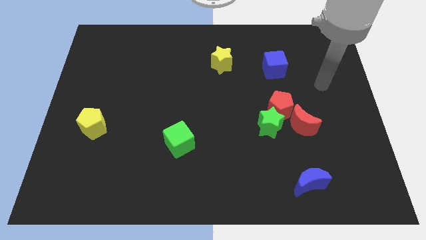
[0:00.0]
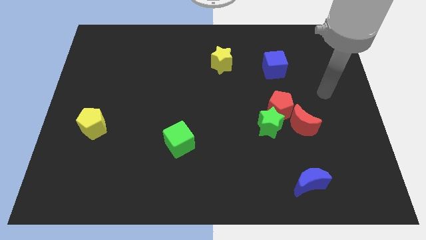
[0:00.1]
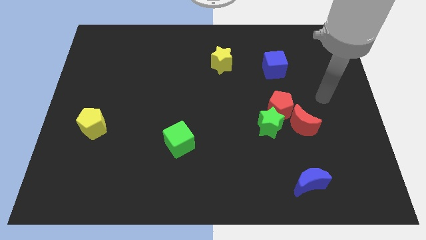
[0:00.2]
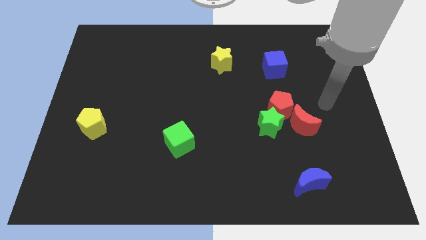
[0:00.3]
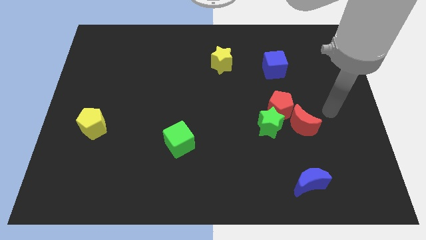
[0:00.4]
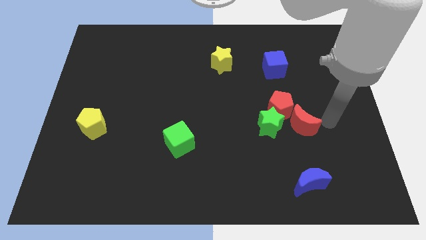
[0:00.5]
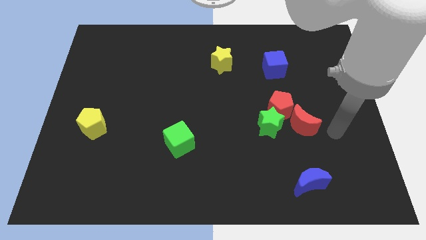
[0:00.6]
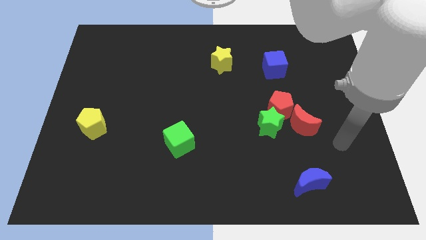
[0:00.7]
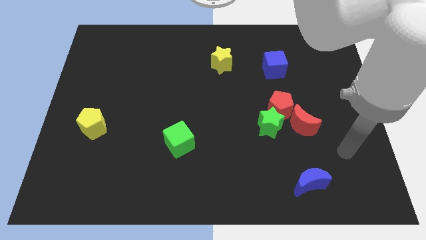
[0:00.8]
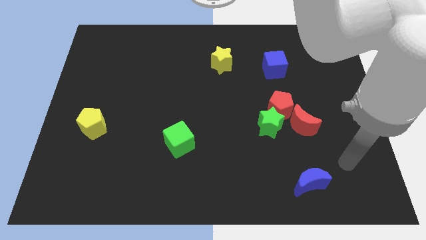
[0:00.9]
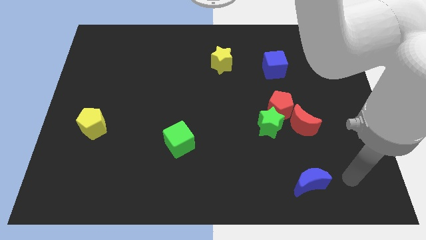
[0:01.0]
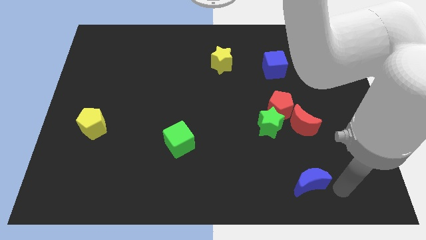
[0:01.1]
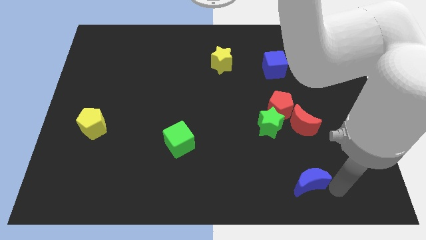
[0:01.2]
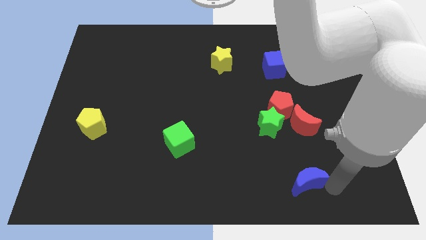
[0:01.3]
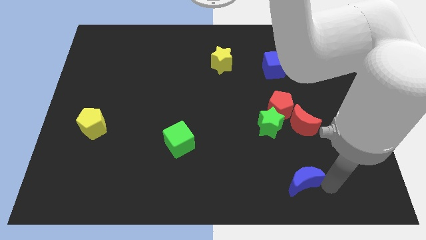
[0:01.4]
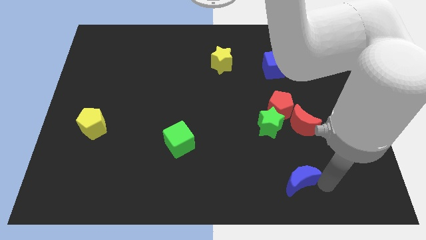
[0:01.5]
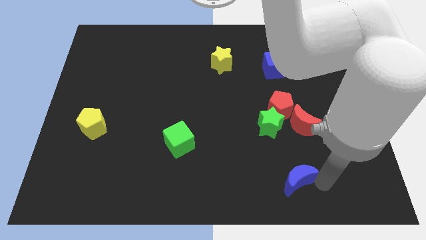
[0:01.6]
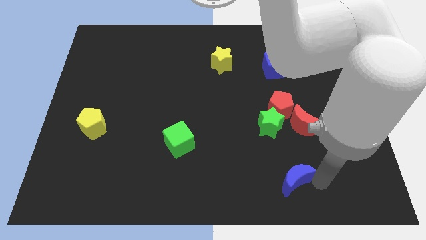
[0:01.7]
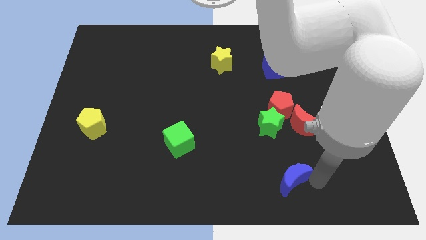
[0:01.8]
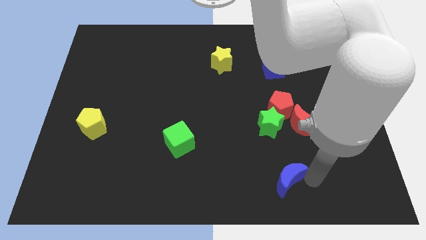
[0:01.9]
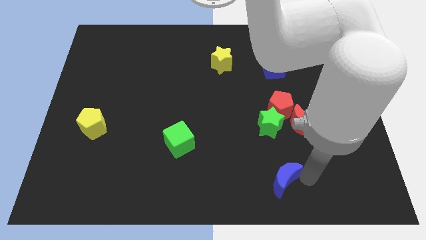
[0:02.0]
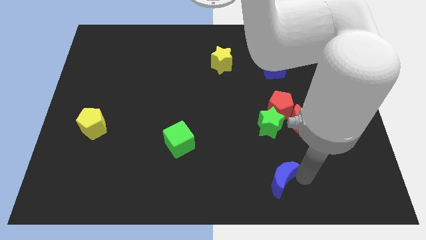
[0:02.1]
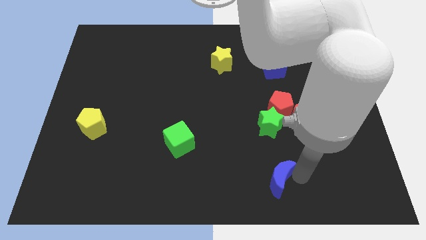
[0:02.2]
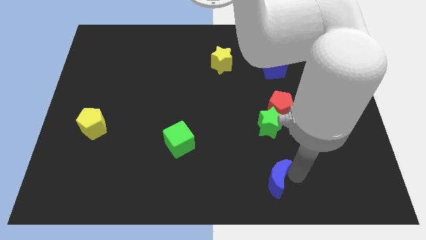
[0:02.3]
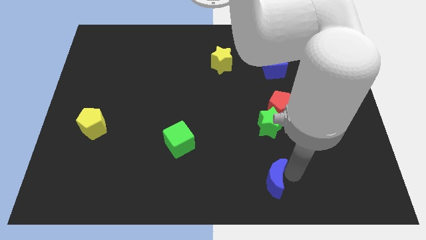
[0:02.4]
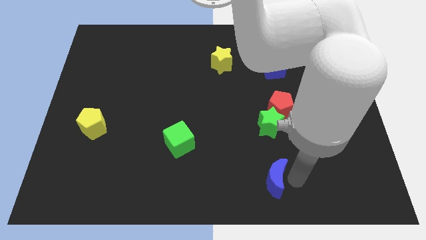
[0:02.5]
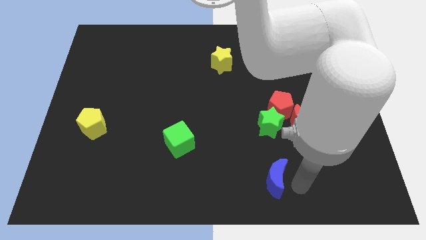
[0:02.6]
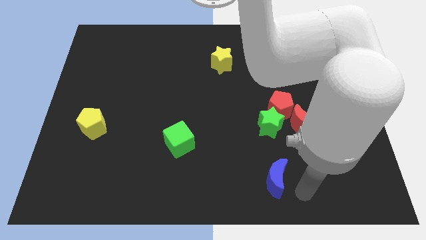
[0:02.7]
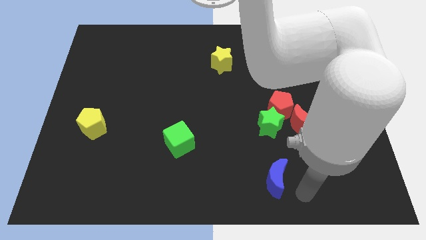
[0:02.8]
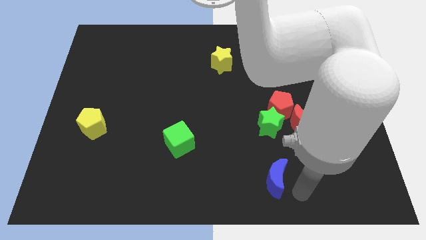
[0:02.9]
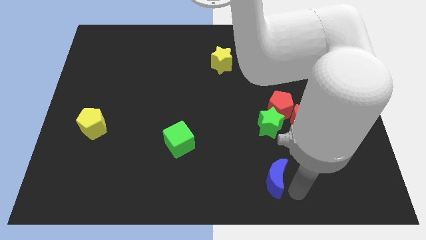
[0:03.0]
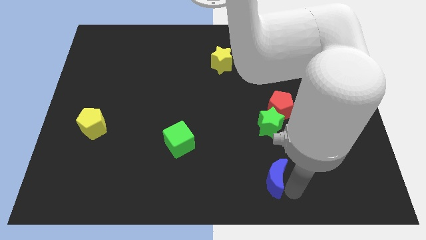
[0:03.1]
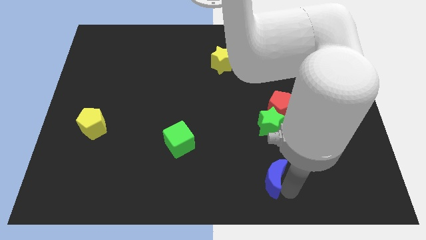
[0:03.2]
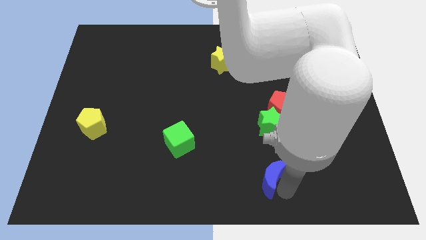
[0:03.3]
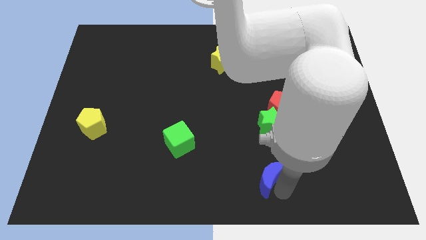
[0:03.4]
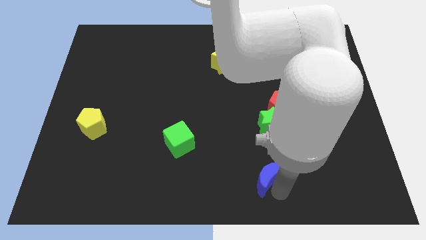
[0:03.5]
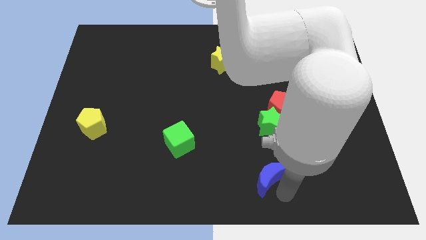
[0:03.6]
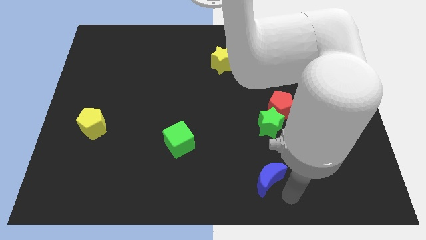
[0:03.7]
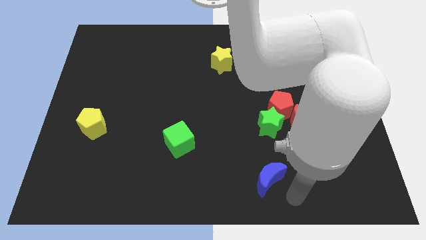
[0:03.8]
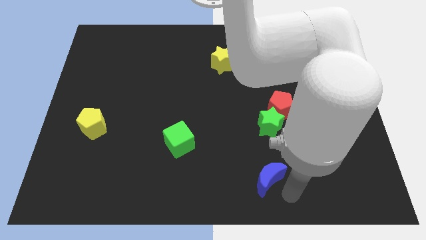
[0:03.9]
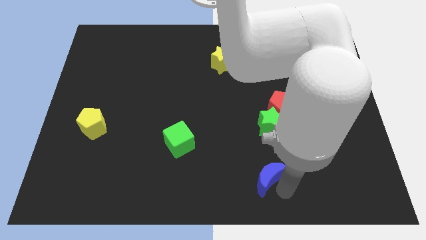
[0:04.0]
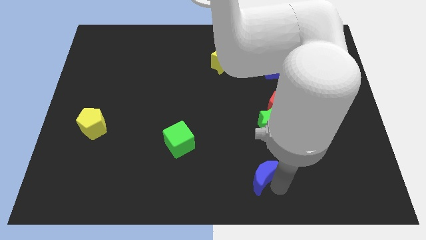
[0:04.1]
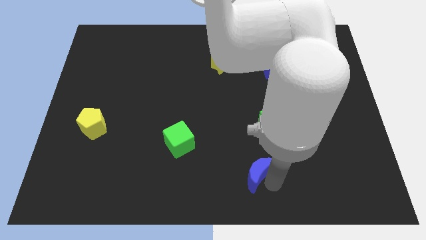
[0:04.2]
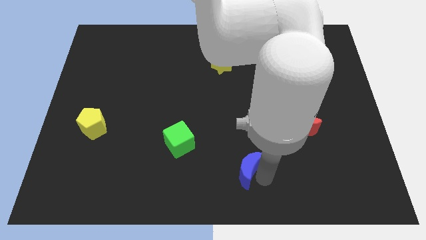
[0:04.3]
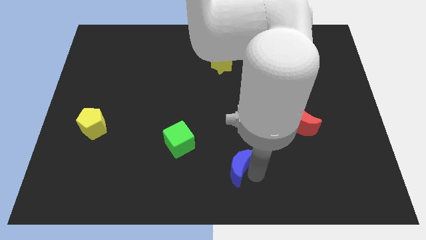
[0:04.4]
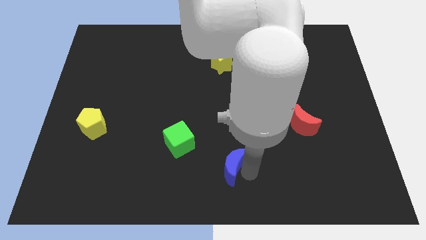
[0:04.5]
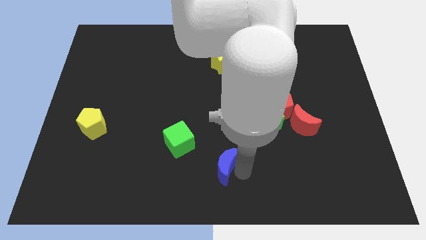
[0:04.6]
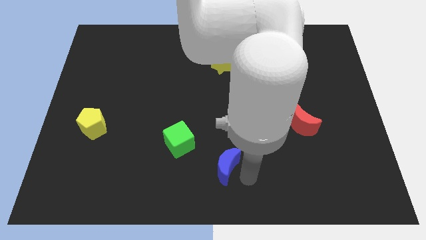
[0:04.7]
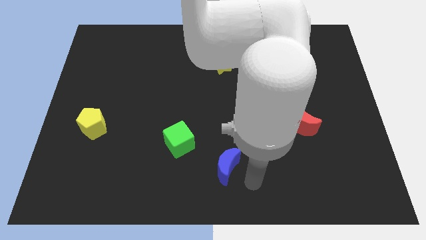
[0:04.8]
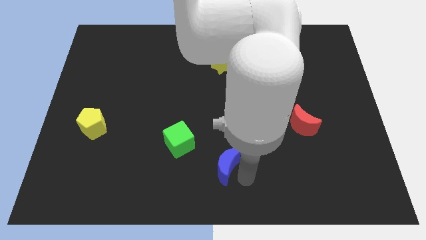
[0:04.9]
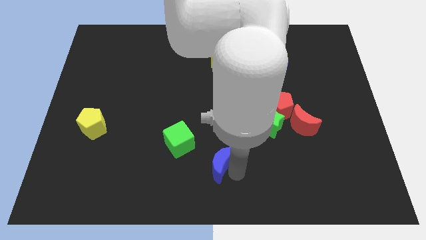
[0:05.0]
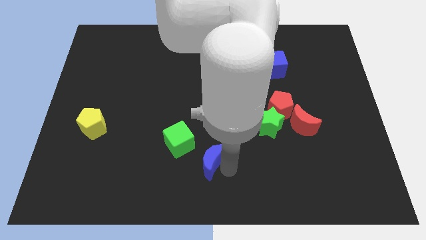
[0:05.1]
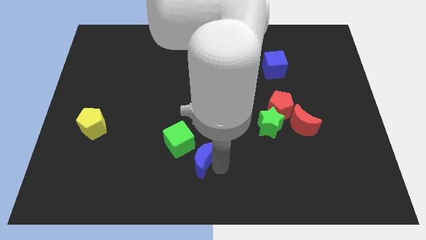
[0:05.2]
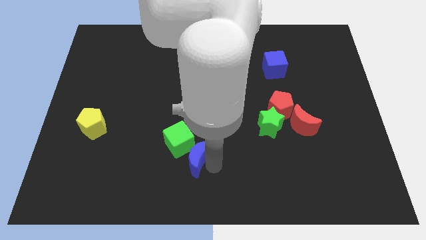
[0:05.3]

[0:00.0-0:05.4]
put the blue moon close to the green cube

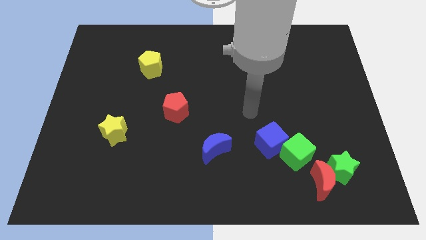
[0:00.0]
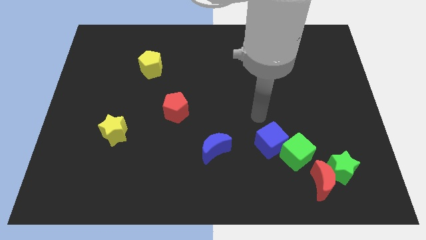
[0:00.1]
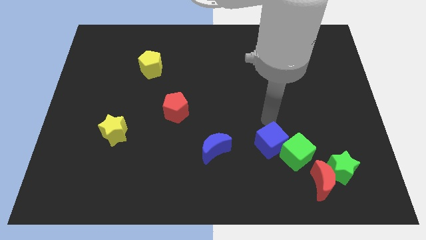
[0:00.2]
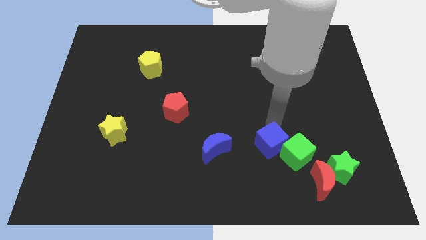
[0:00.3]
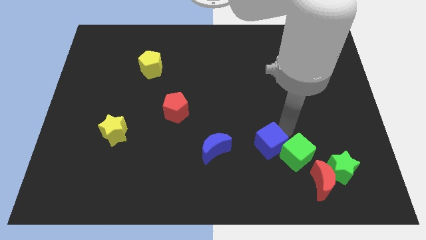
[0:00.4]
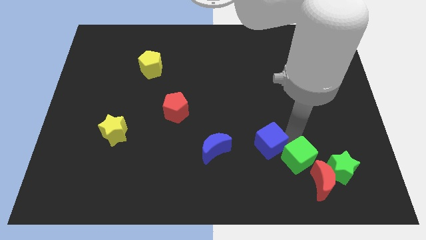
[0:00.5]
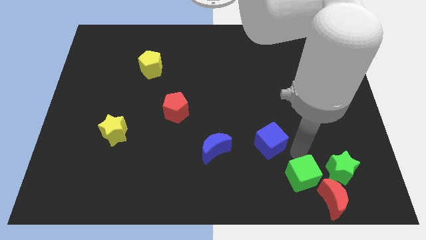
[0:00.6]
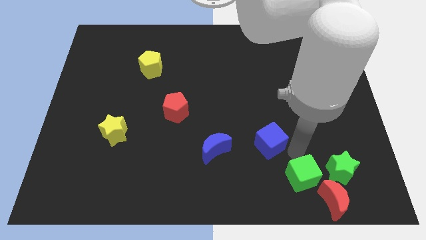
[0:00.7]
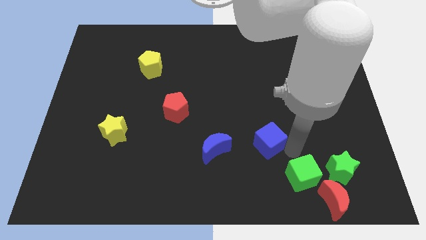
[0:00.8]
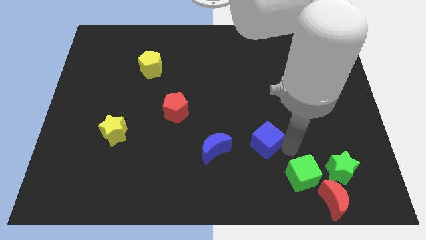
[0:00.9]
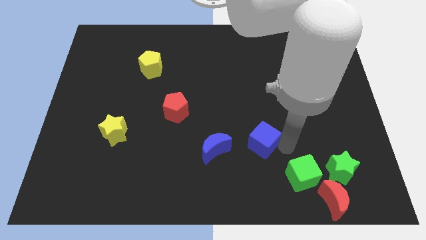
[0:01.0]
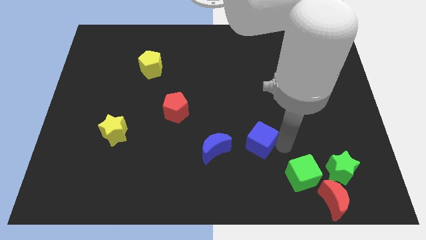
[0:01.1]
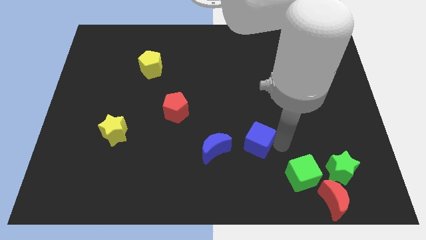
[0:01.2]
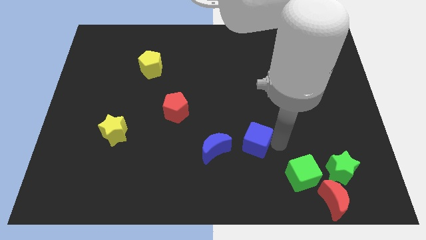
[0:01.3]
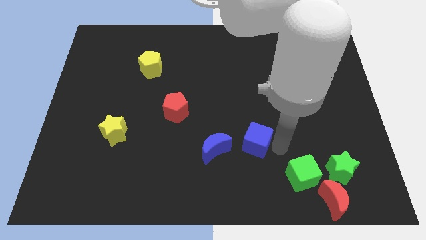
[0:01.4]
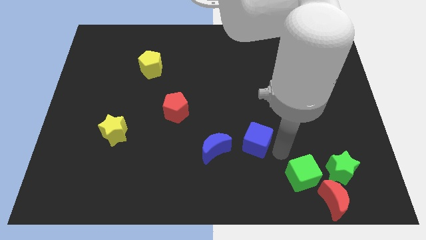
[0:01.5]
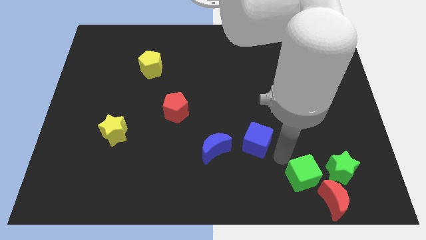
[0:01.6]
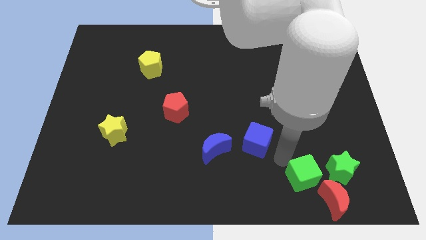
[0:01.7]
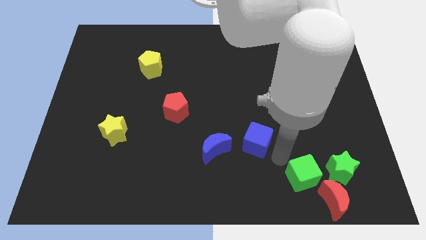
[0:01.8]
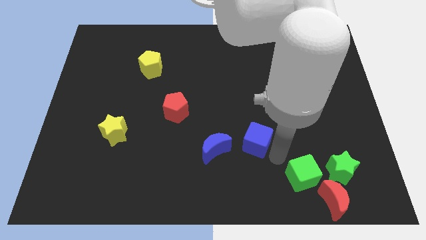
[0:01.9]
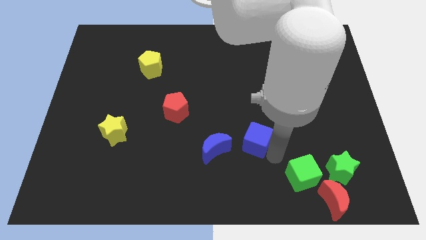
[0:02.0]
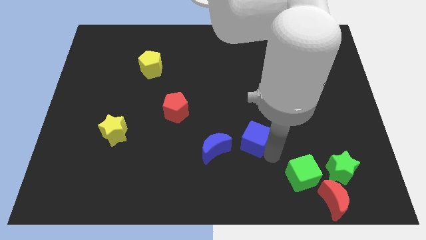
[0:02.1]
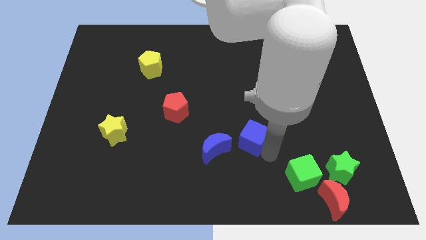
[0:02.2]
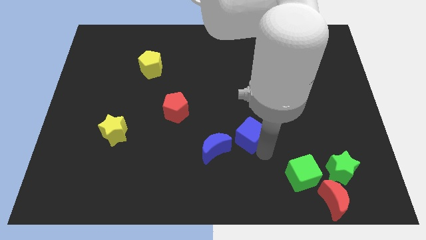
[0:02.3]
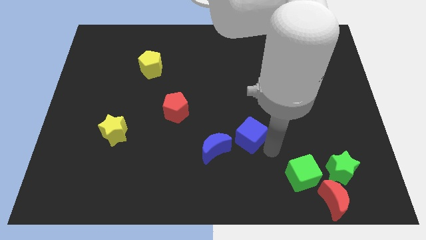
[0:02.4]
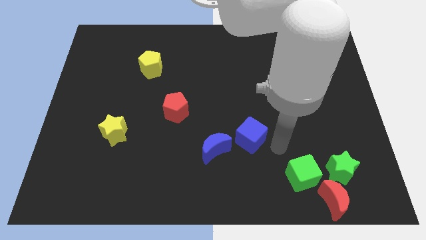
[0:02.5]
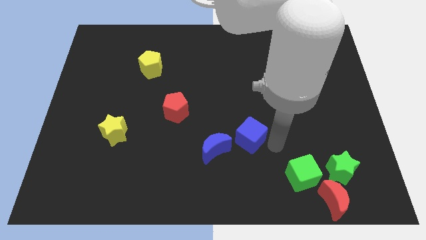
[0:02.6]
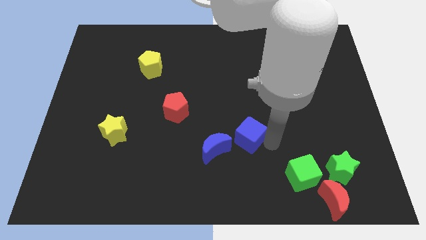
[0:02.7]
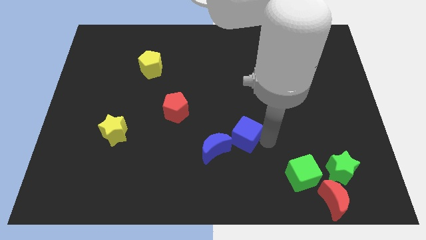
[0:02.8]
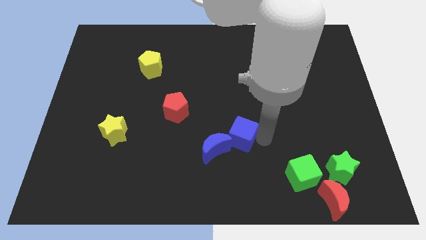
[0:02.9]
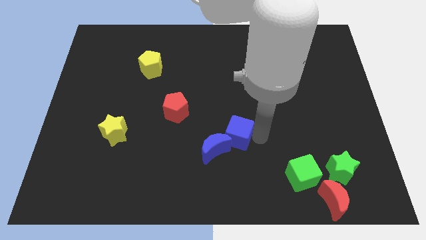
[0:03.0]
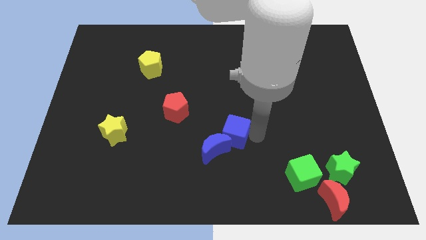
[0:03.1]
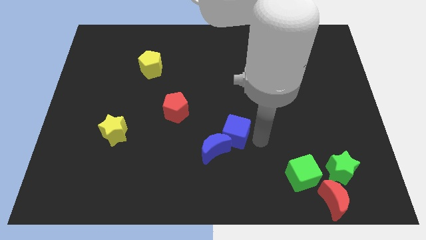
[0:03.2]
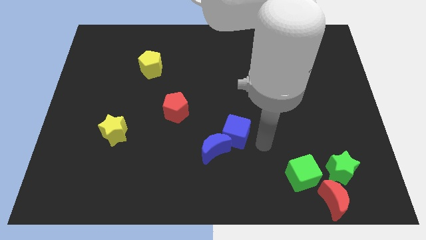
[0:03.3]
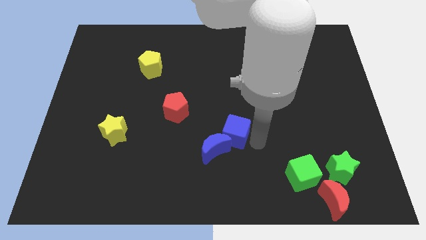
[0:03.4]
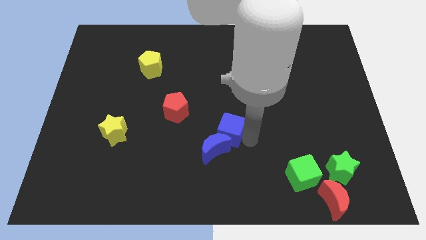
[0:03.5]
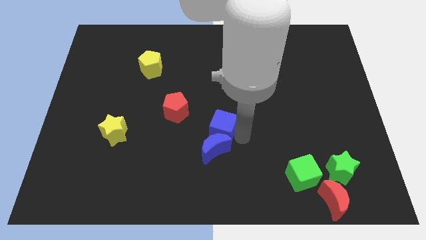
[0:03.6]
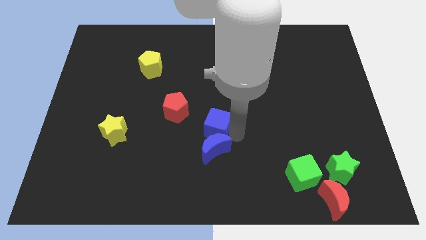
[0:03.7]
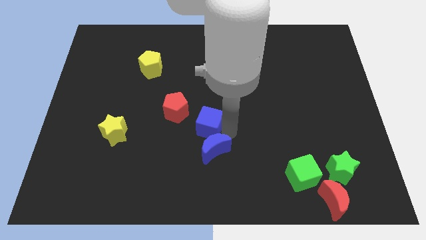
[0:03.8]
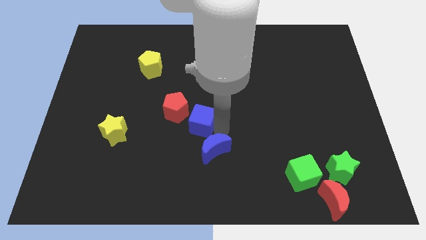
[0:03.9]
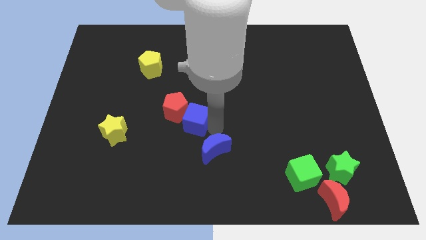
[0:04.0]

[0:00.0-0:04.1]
push the blue cube next to the red pentagon
